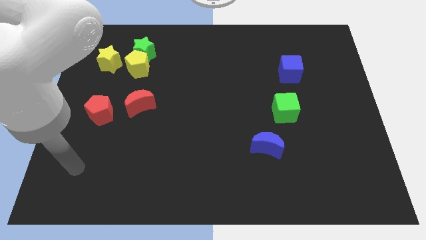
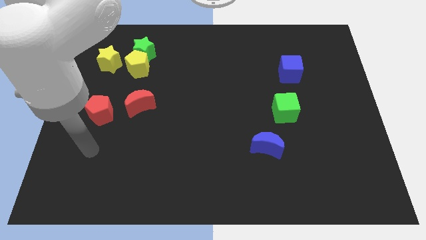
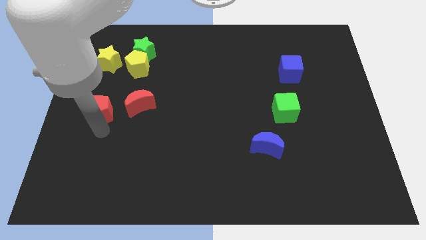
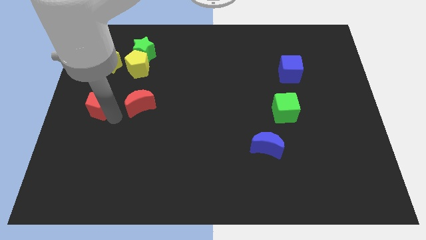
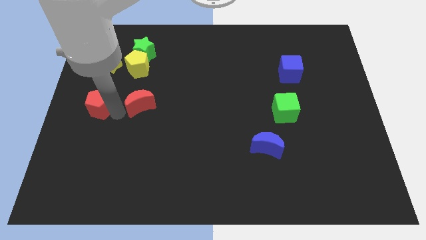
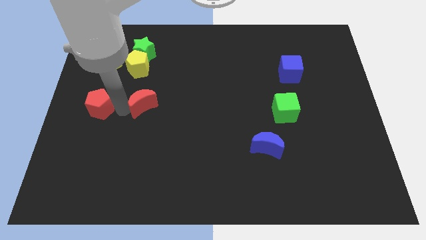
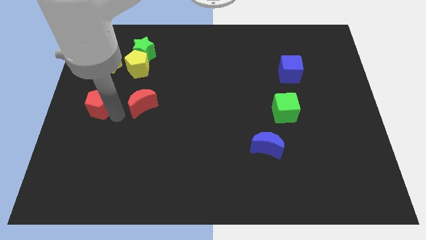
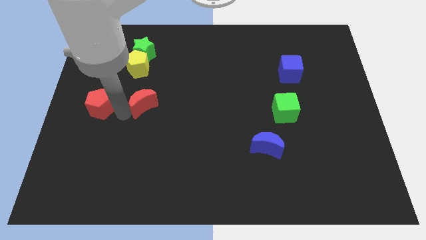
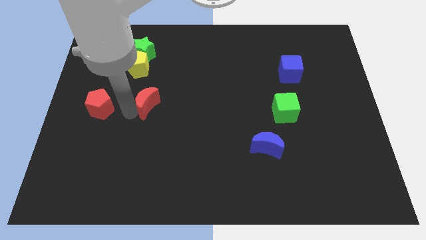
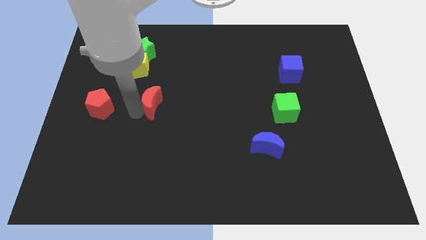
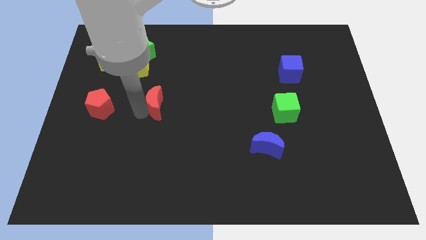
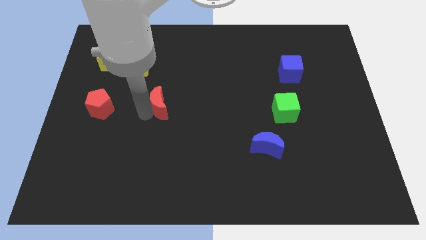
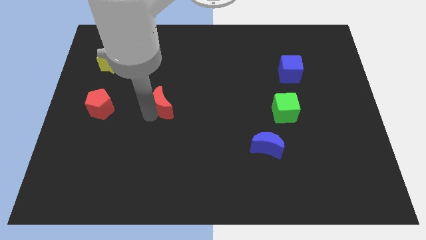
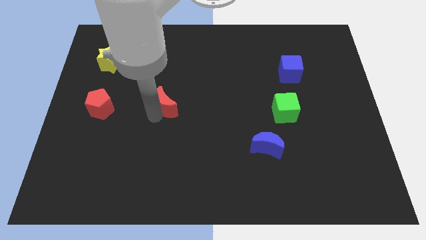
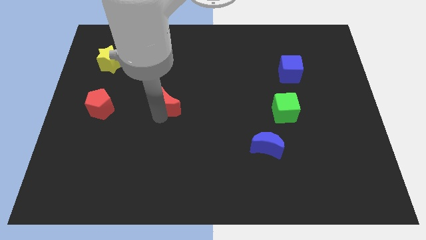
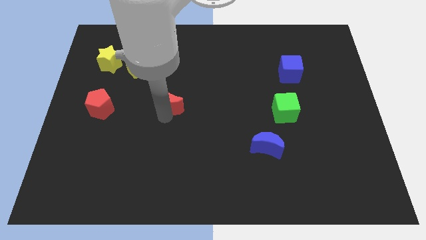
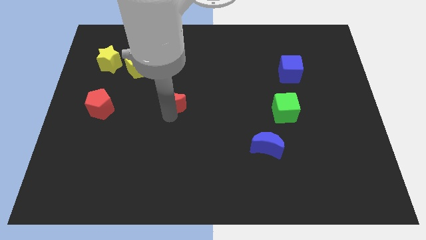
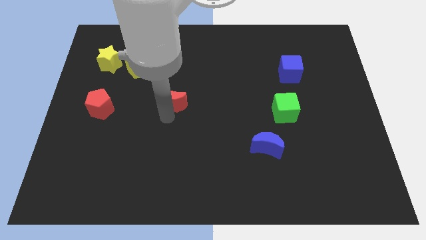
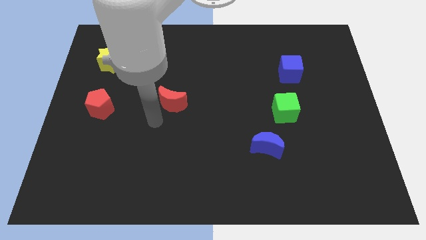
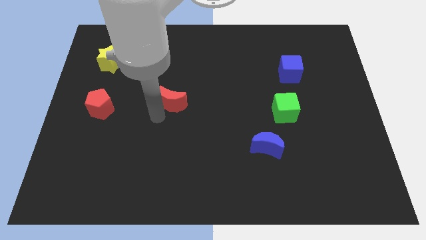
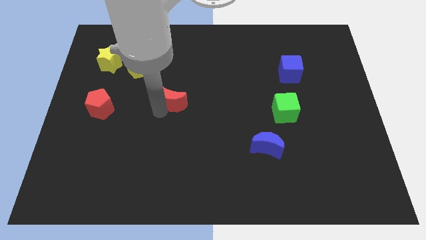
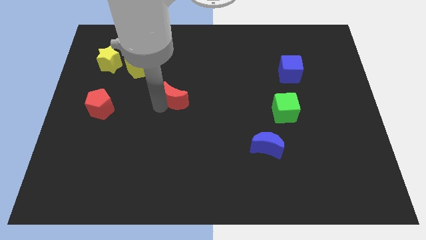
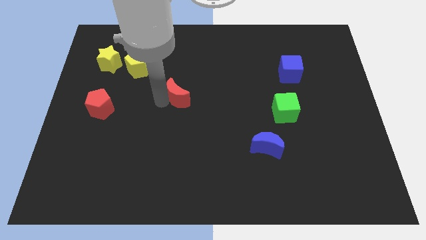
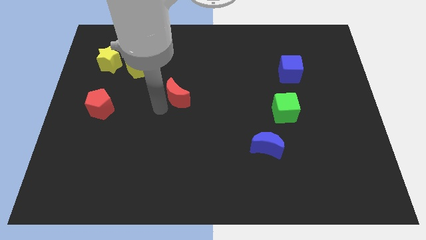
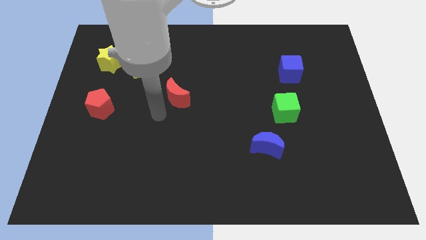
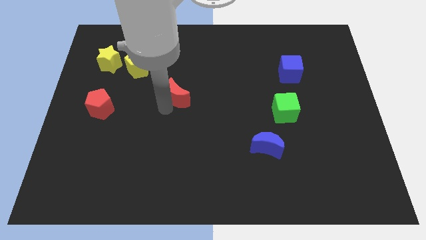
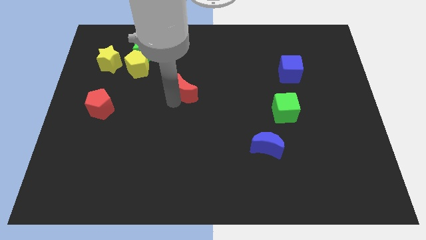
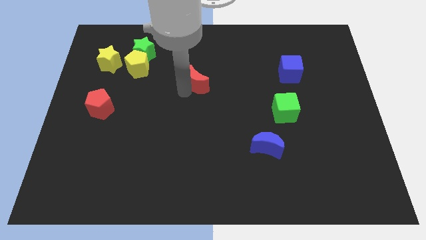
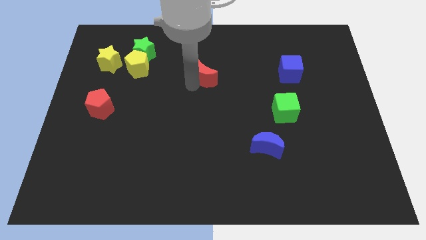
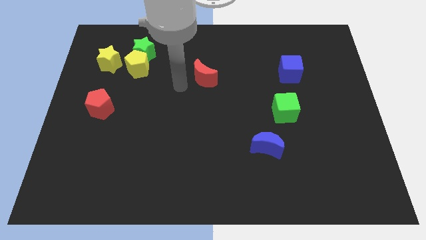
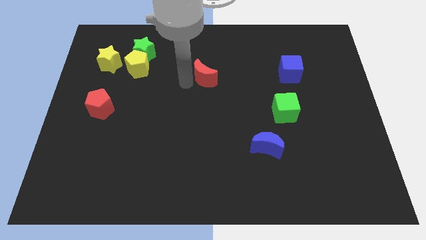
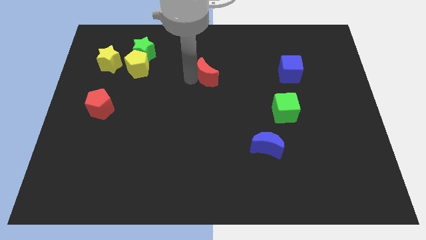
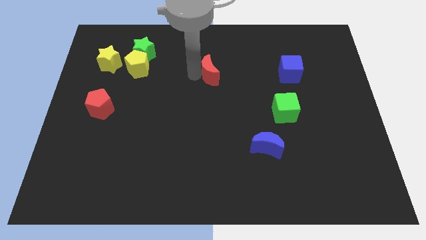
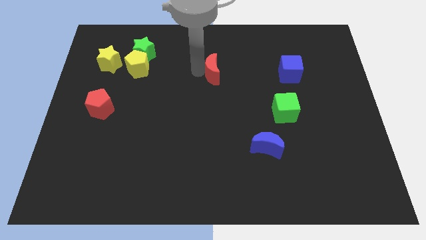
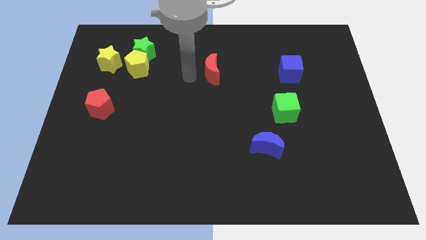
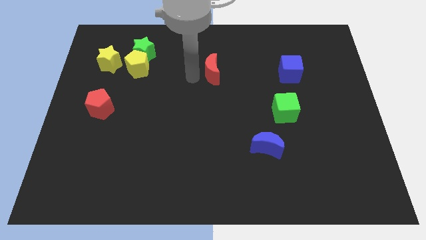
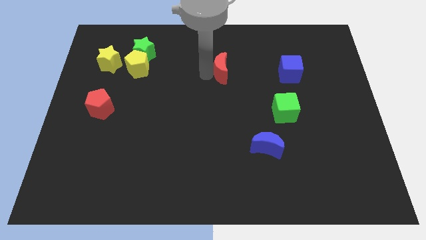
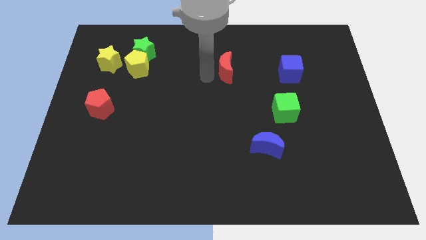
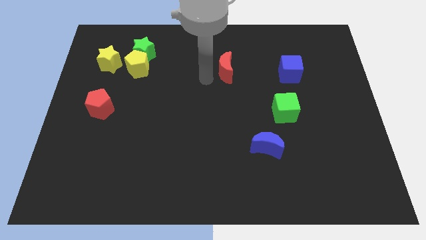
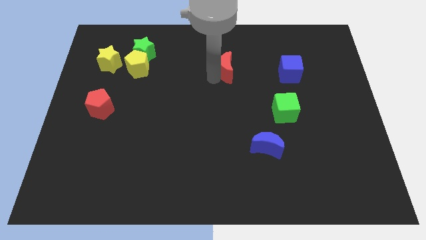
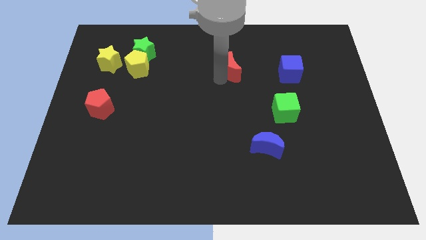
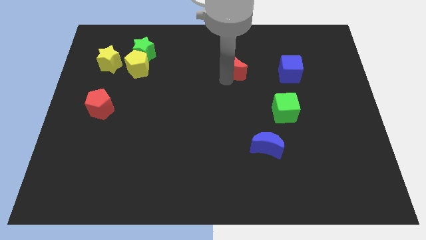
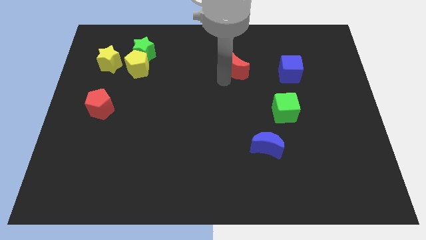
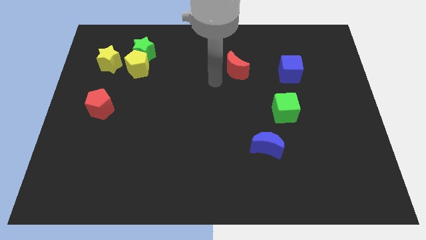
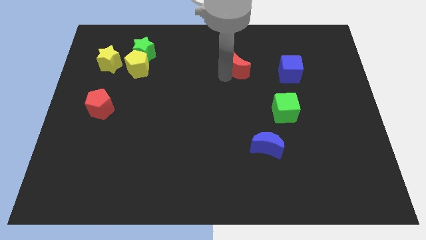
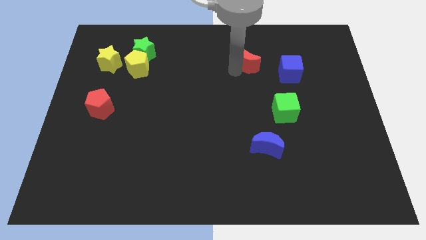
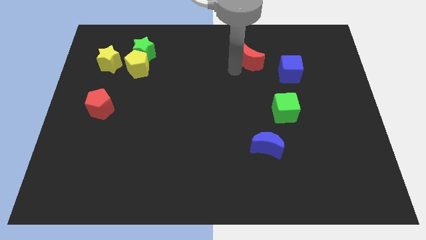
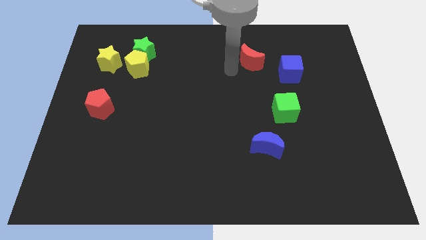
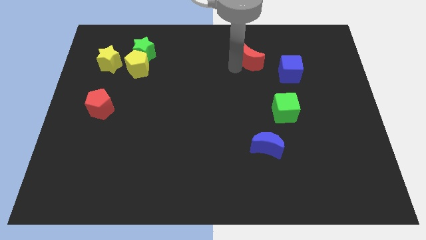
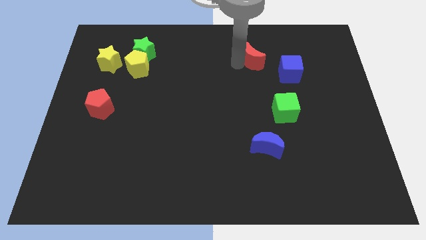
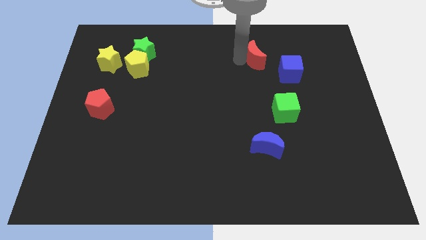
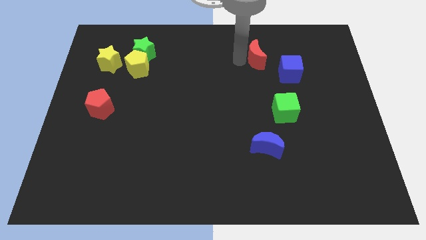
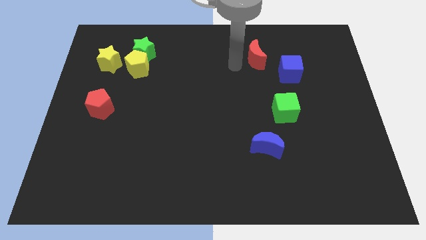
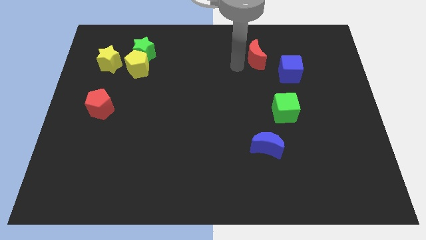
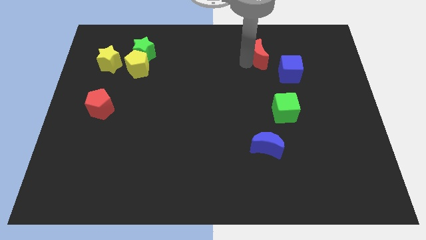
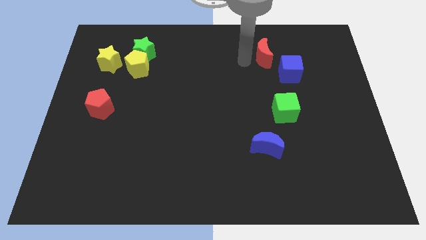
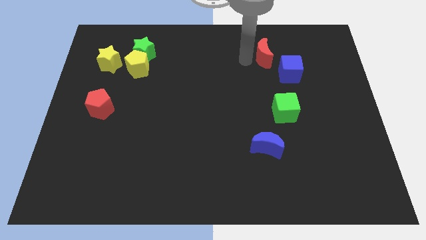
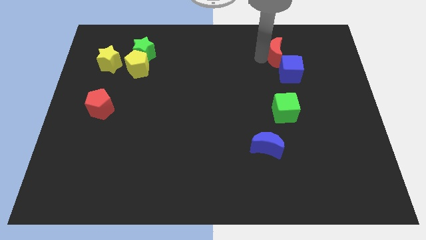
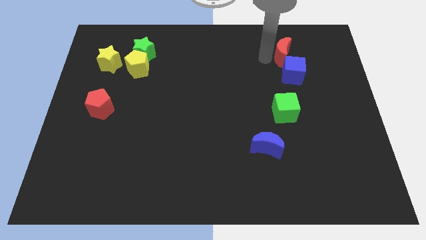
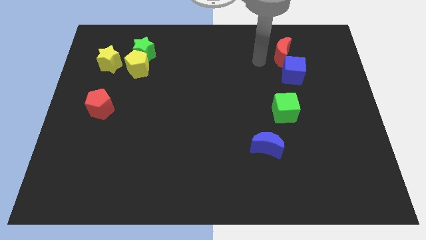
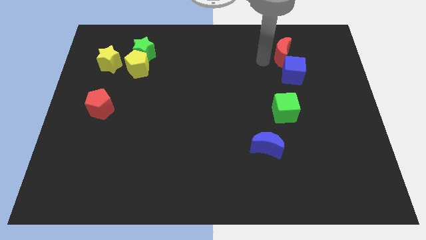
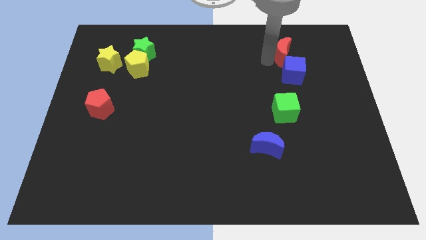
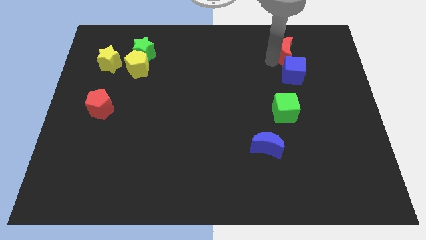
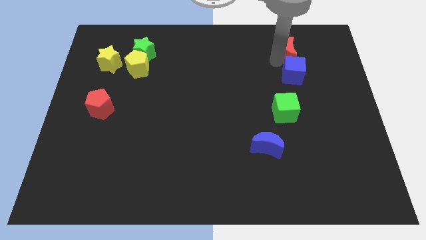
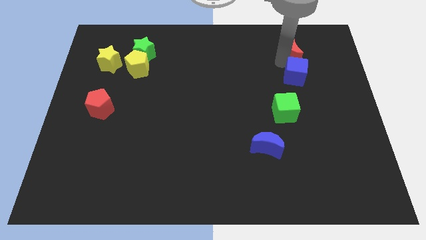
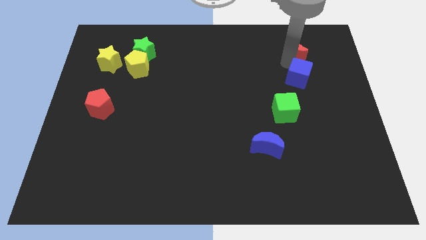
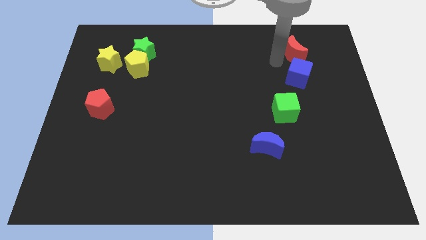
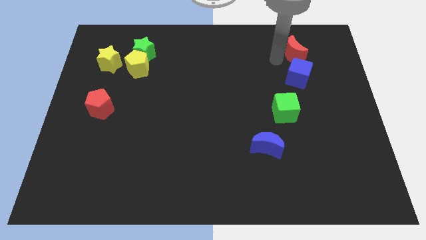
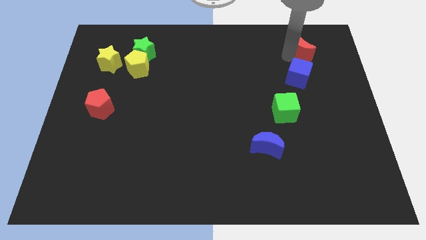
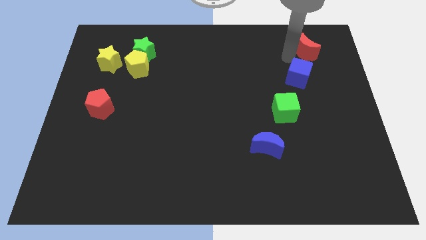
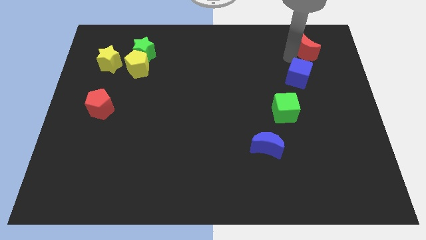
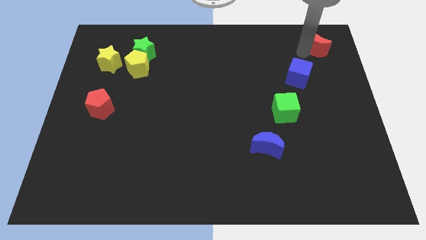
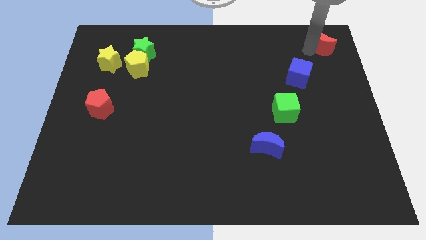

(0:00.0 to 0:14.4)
move the red moon to the upper right corner

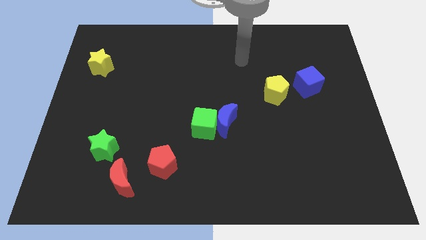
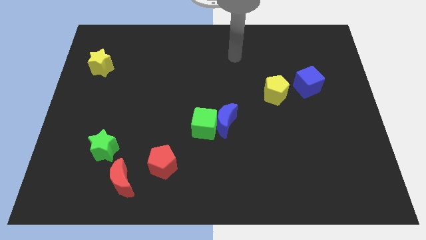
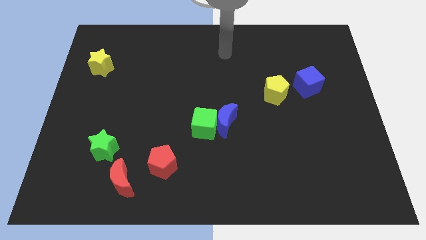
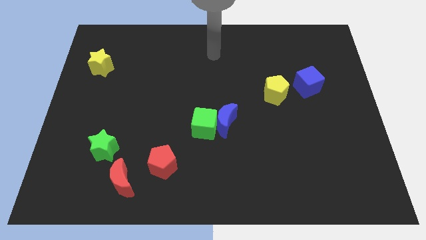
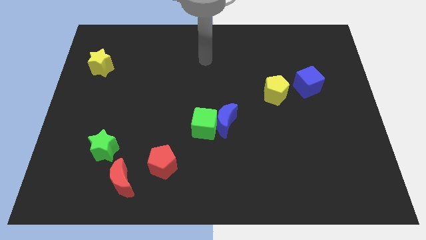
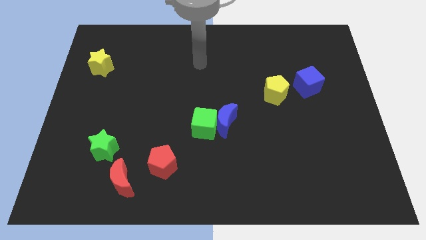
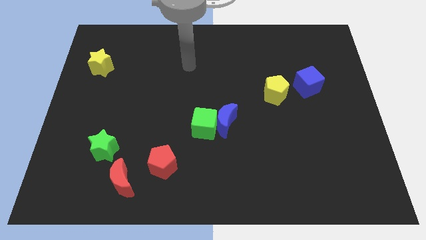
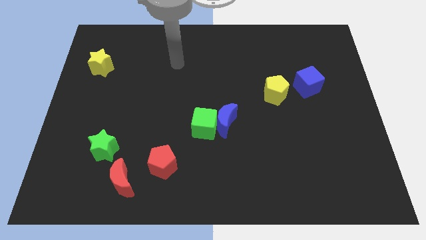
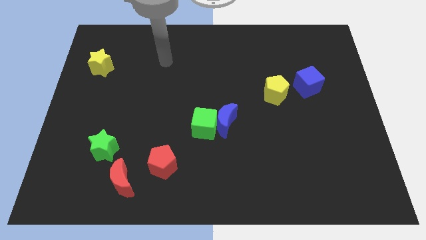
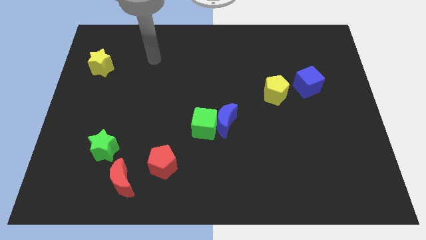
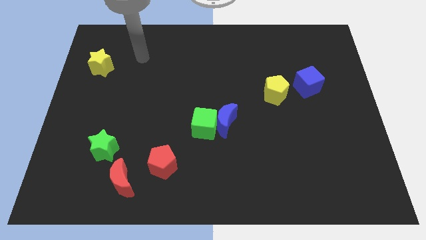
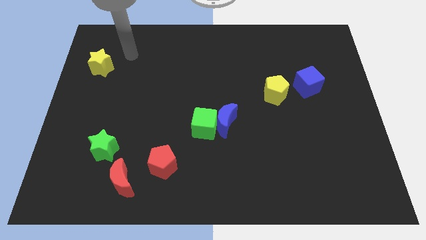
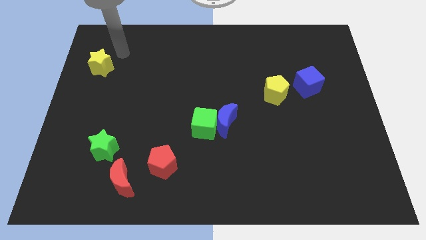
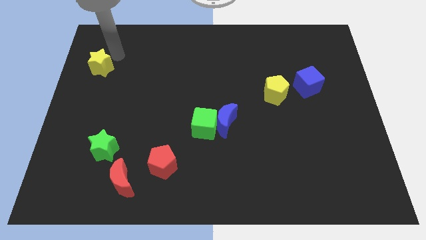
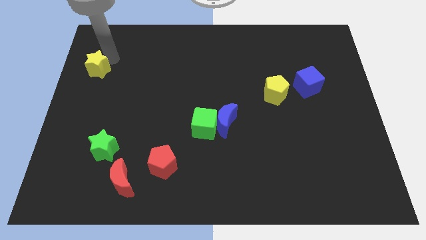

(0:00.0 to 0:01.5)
put the yellow star to the left side
